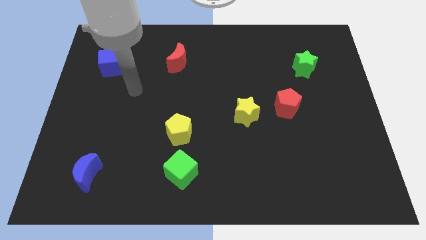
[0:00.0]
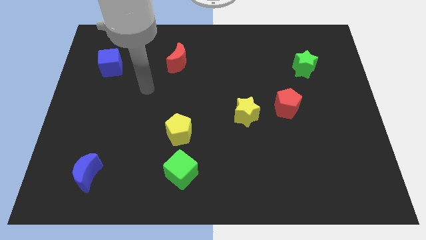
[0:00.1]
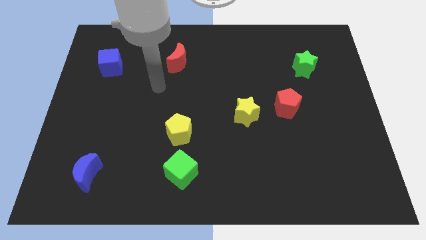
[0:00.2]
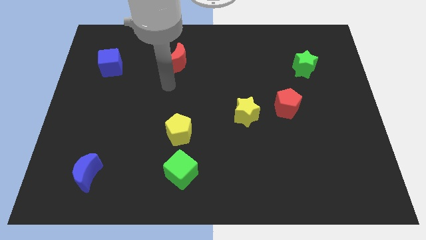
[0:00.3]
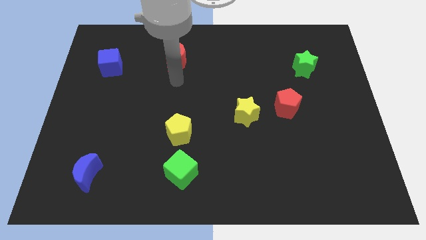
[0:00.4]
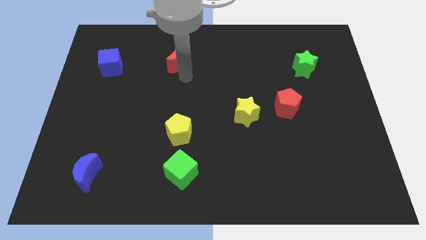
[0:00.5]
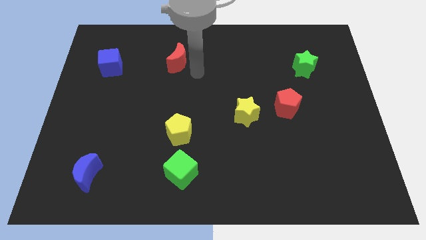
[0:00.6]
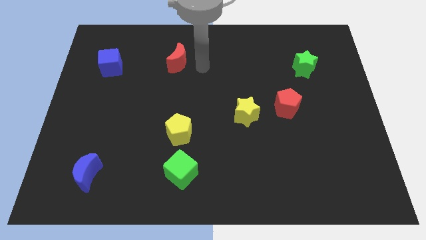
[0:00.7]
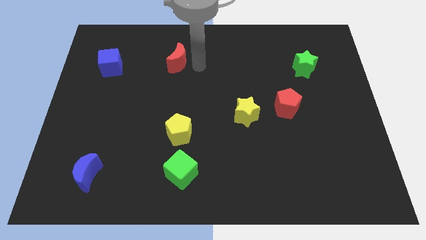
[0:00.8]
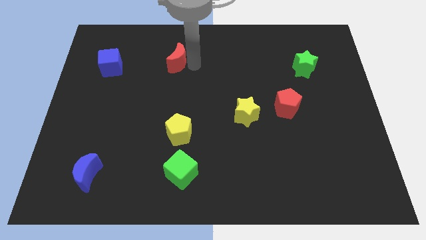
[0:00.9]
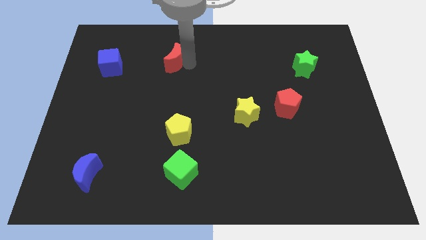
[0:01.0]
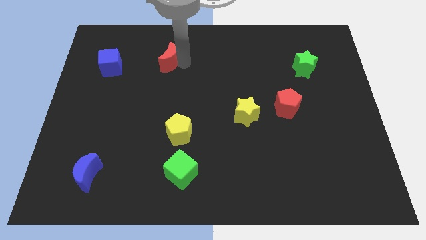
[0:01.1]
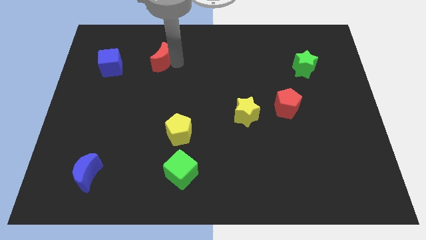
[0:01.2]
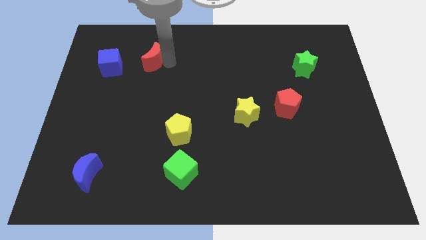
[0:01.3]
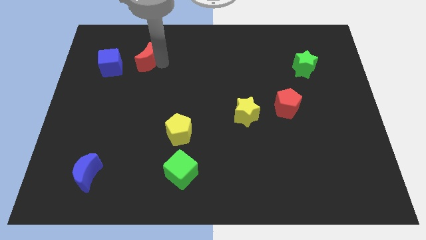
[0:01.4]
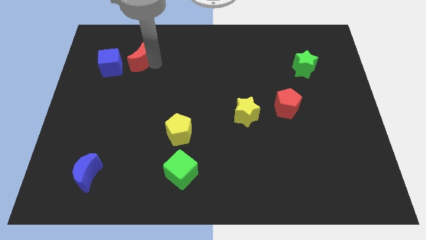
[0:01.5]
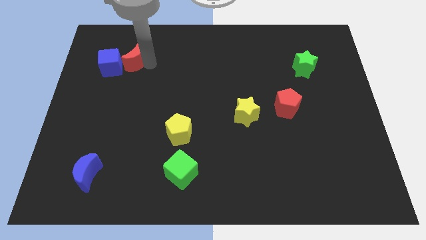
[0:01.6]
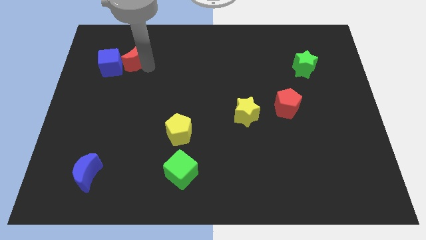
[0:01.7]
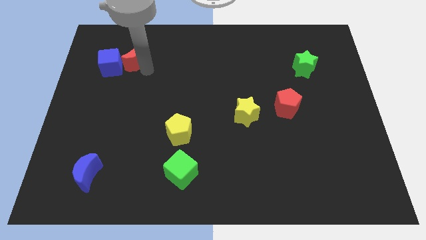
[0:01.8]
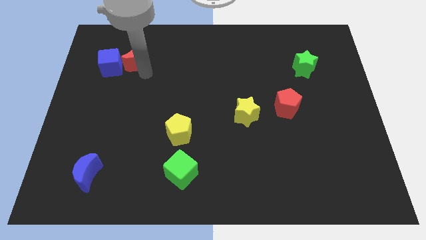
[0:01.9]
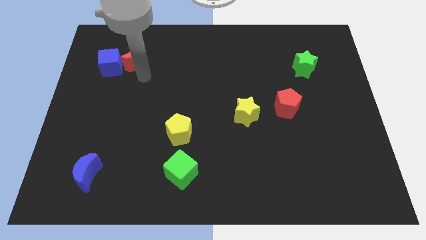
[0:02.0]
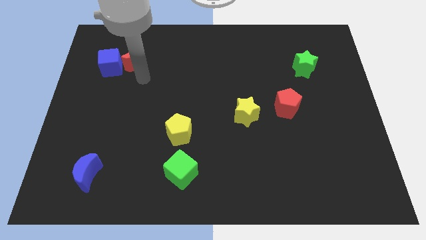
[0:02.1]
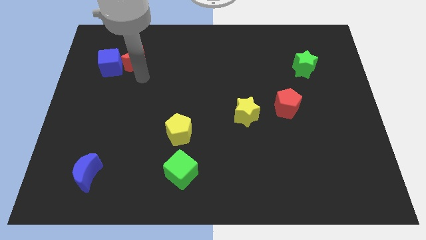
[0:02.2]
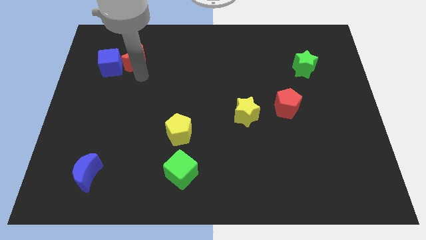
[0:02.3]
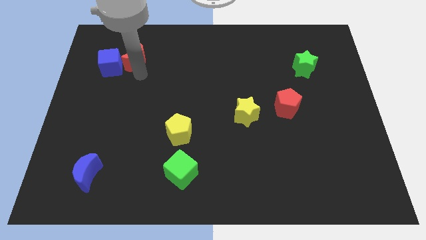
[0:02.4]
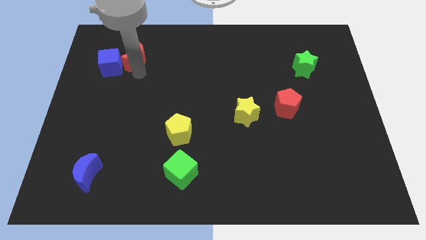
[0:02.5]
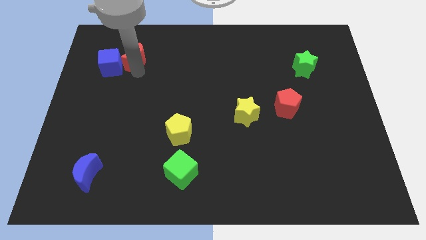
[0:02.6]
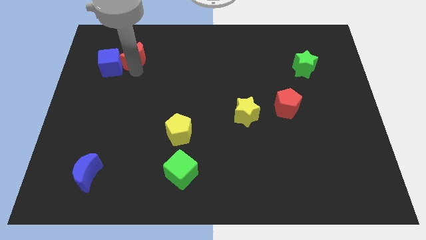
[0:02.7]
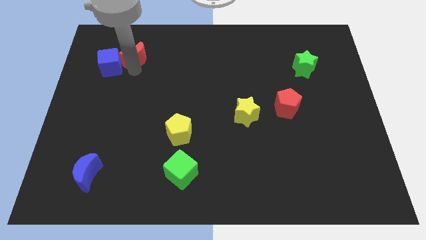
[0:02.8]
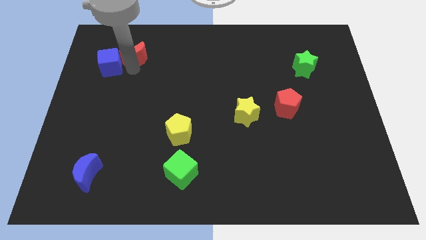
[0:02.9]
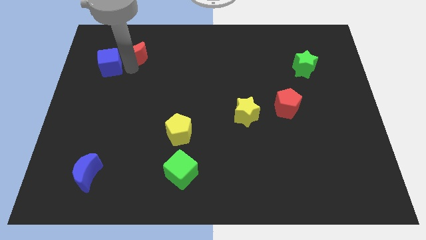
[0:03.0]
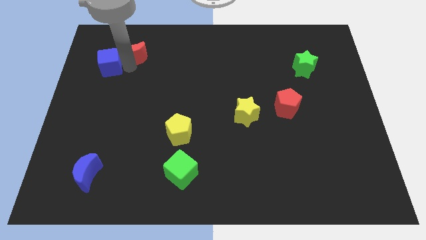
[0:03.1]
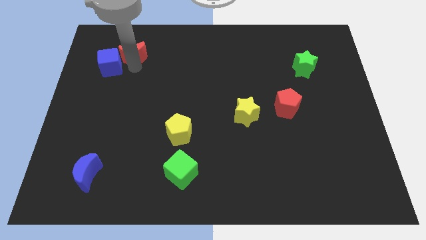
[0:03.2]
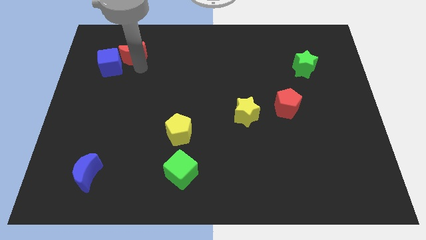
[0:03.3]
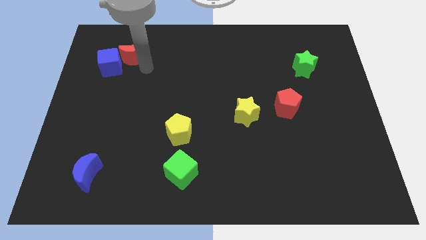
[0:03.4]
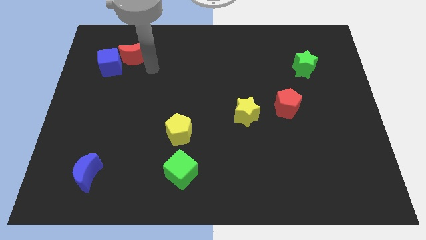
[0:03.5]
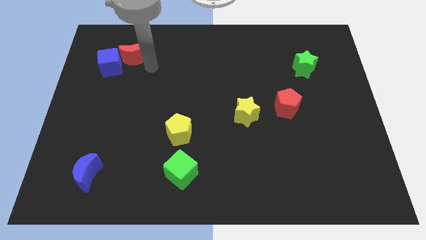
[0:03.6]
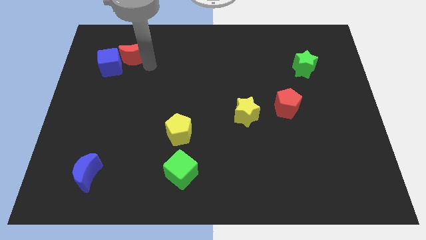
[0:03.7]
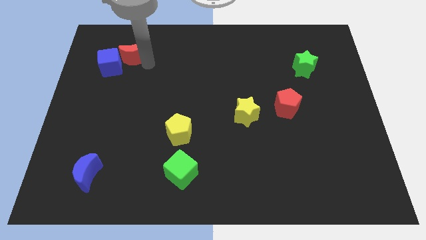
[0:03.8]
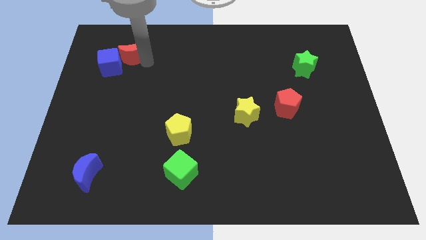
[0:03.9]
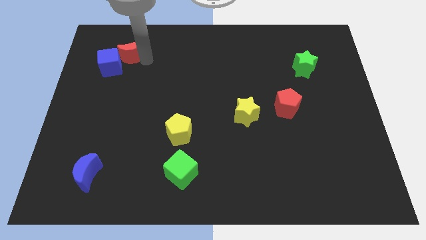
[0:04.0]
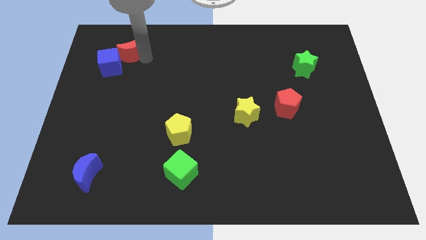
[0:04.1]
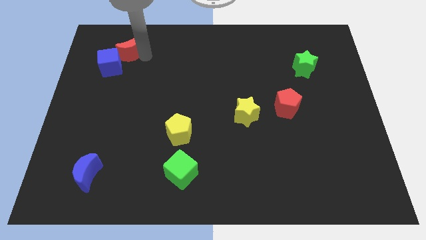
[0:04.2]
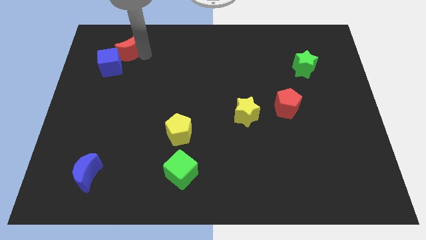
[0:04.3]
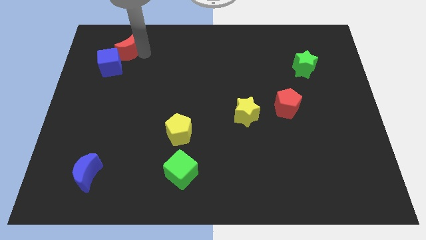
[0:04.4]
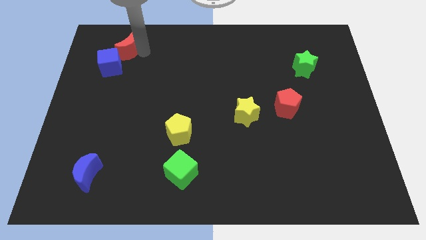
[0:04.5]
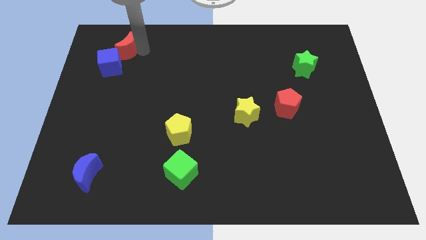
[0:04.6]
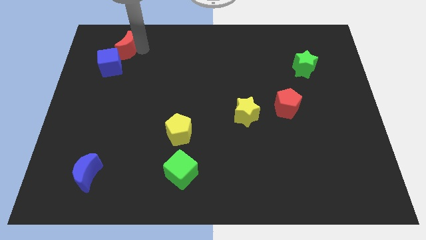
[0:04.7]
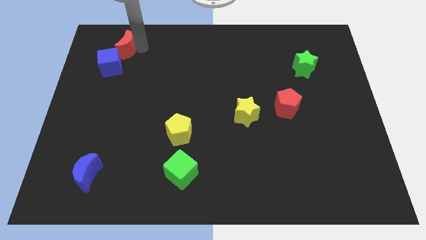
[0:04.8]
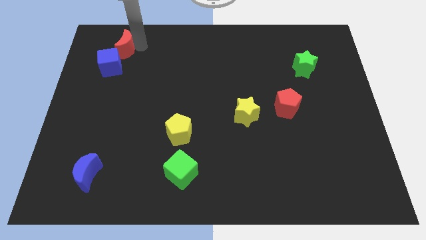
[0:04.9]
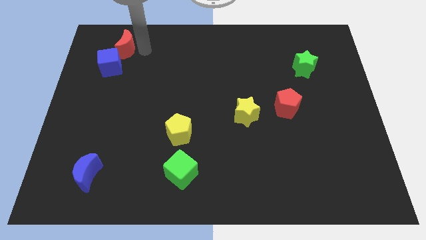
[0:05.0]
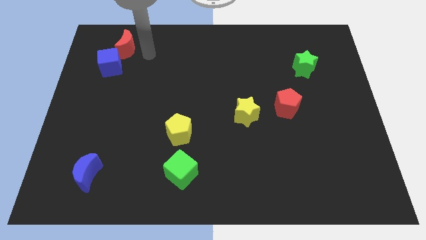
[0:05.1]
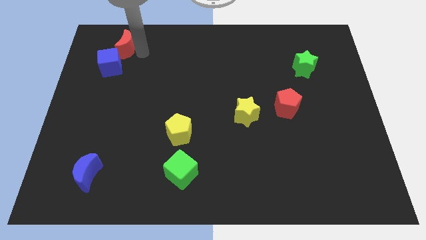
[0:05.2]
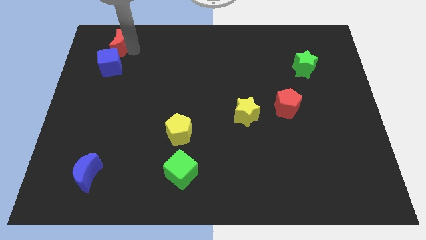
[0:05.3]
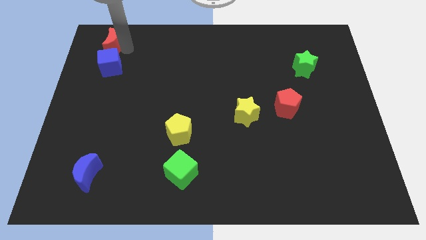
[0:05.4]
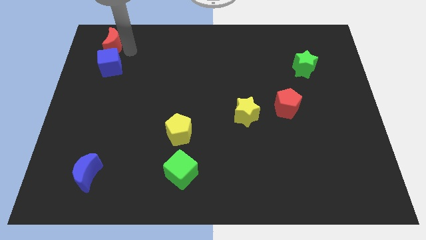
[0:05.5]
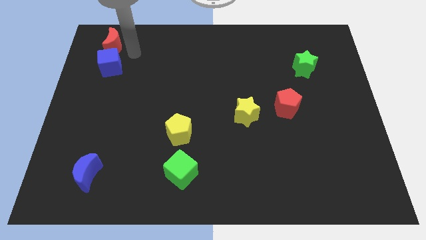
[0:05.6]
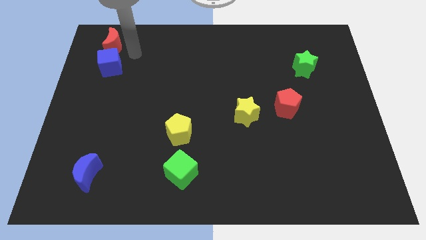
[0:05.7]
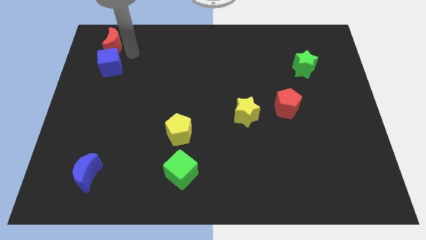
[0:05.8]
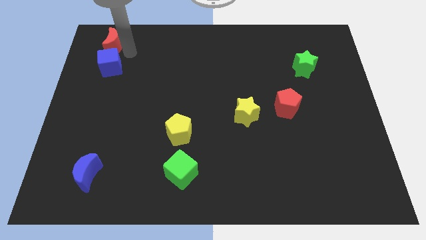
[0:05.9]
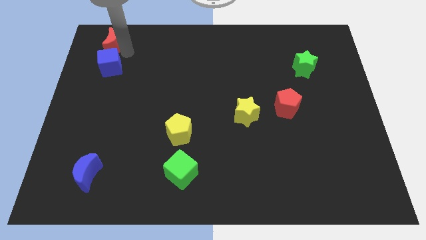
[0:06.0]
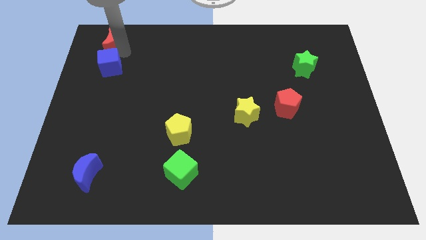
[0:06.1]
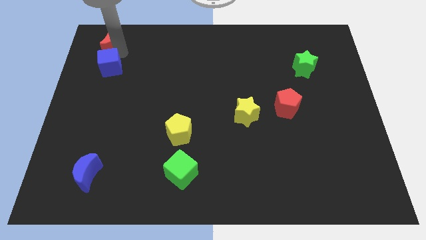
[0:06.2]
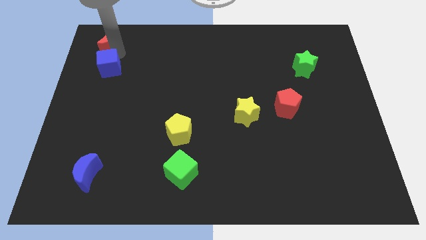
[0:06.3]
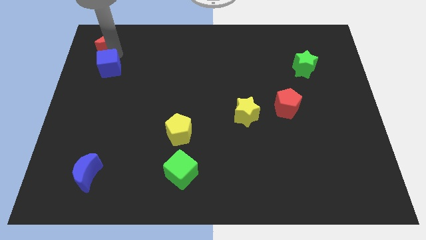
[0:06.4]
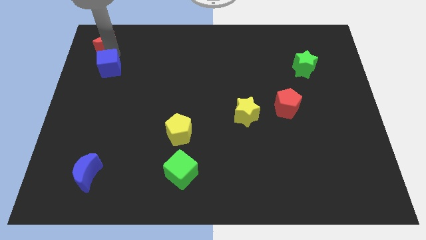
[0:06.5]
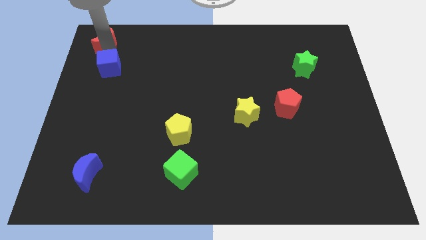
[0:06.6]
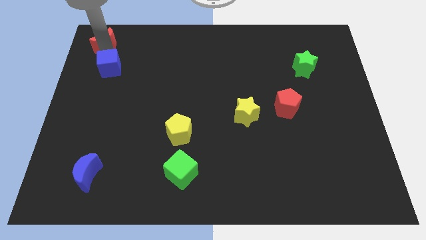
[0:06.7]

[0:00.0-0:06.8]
push the red moon to the top left of the board

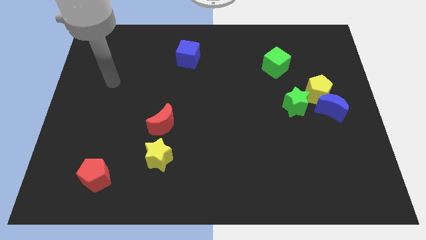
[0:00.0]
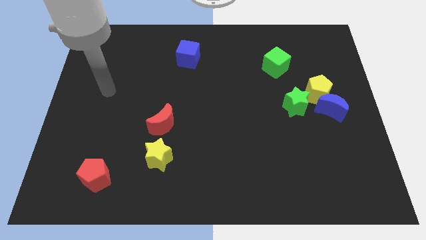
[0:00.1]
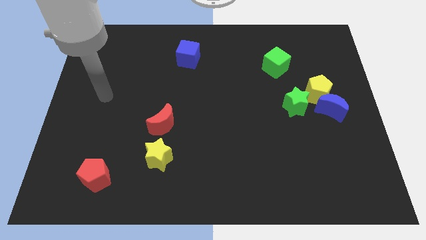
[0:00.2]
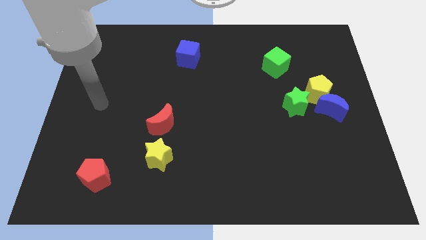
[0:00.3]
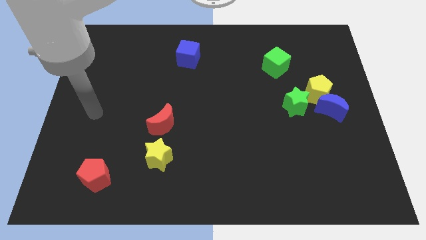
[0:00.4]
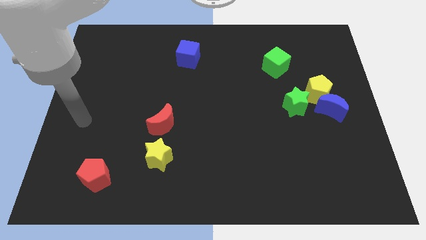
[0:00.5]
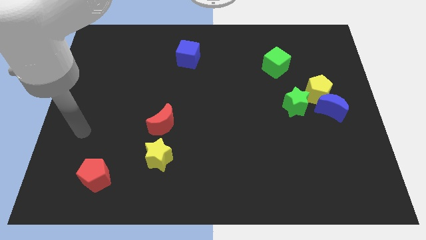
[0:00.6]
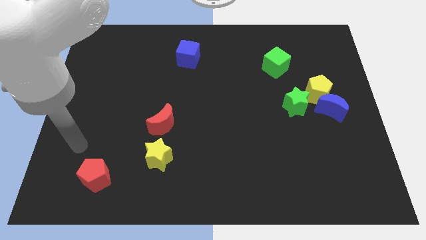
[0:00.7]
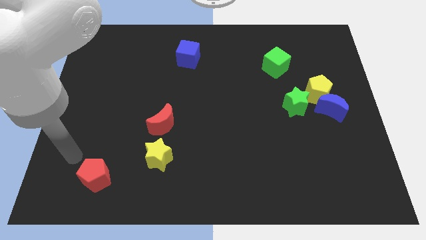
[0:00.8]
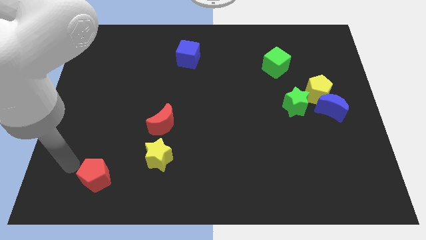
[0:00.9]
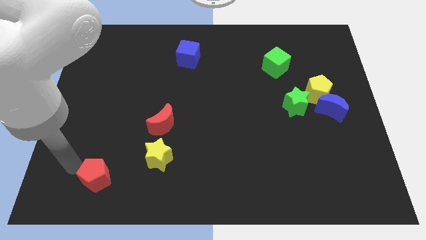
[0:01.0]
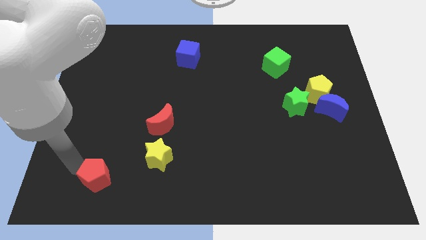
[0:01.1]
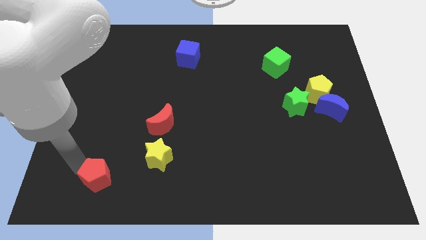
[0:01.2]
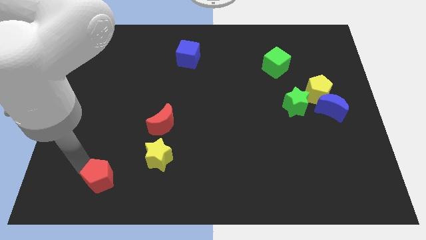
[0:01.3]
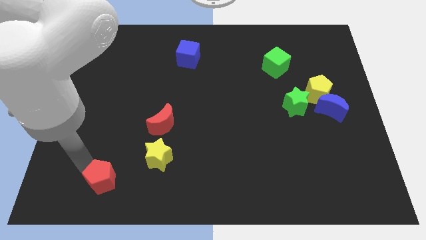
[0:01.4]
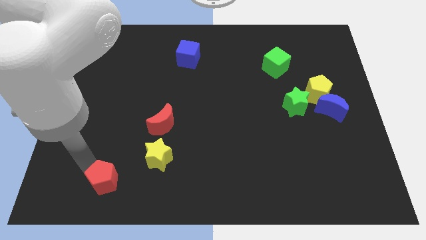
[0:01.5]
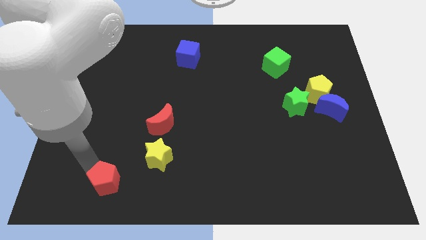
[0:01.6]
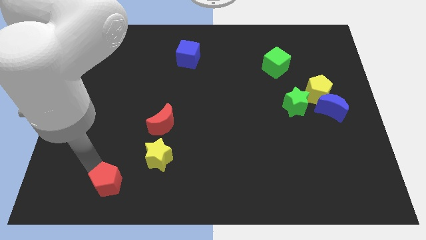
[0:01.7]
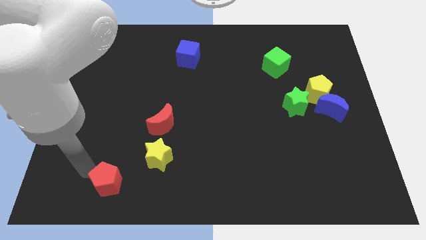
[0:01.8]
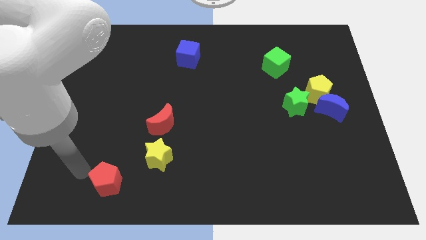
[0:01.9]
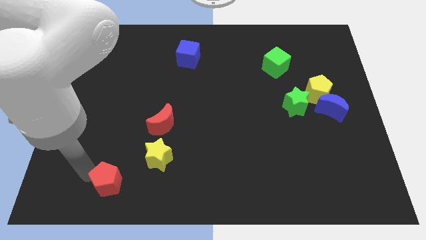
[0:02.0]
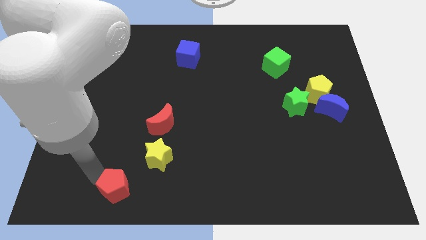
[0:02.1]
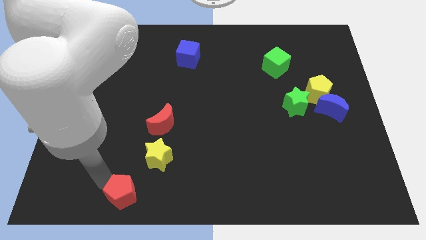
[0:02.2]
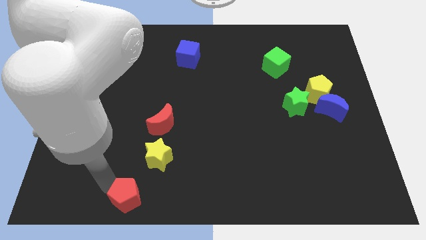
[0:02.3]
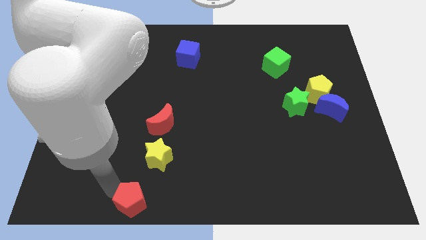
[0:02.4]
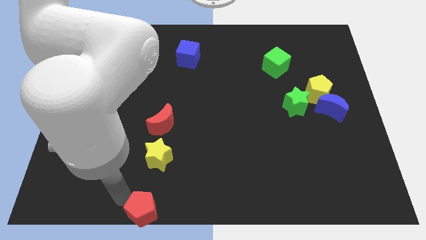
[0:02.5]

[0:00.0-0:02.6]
push the red pentagon to the bottom side
